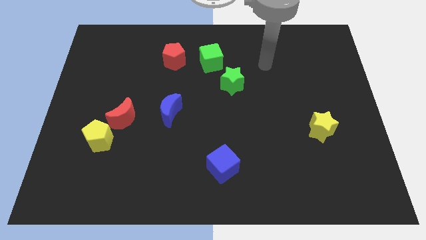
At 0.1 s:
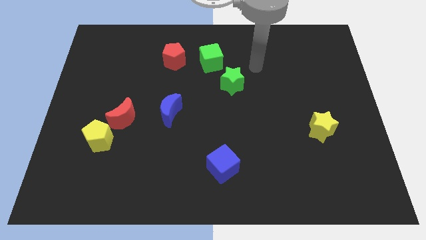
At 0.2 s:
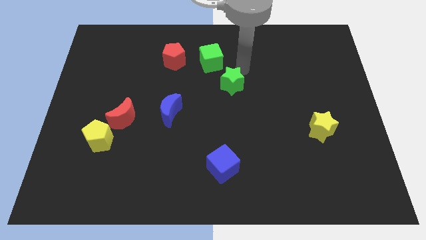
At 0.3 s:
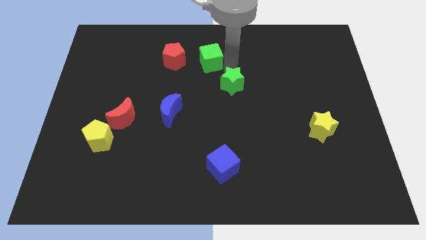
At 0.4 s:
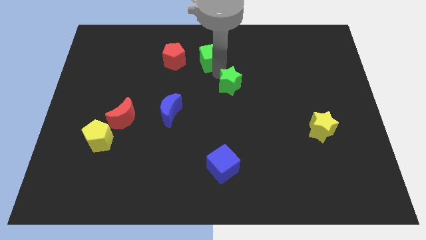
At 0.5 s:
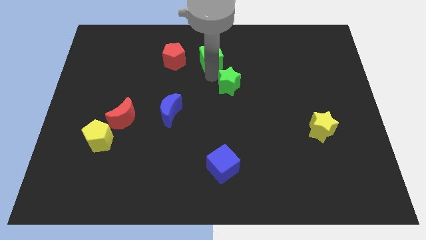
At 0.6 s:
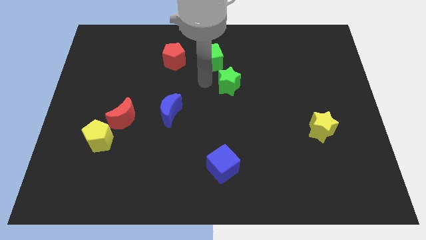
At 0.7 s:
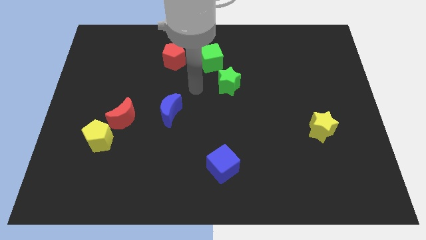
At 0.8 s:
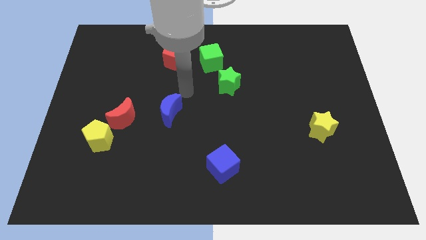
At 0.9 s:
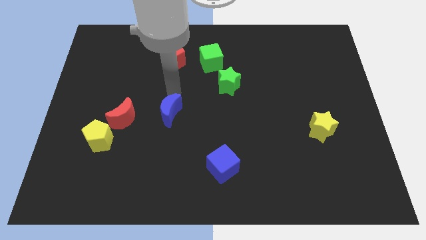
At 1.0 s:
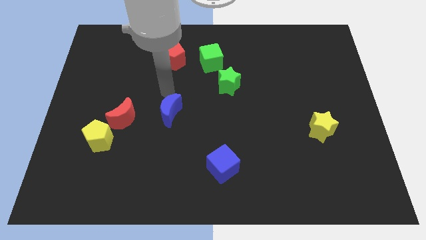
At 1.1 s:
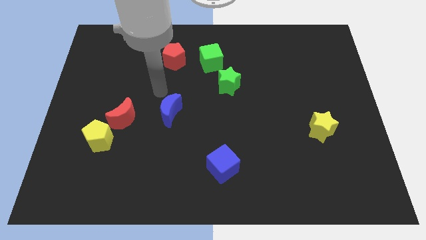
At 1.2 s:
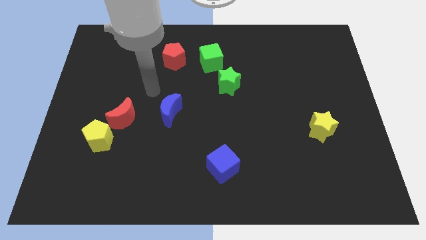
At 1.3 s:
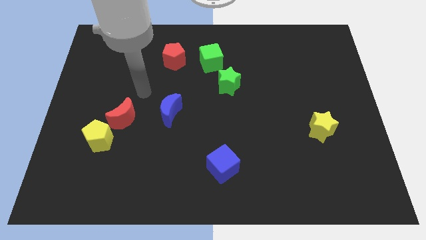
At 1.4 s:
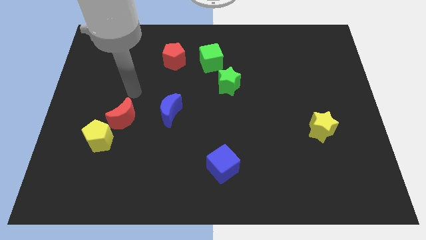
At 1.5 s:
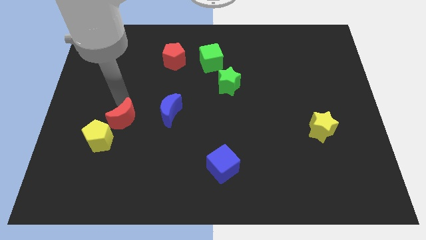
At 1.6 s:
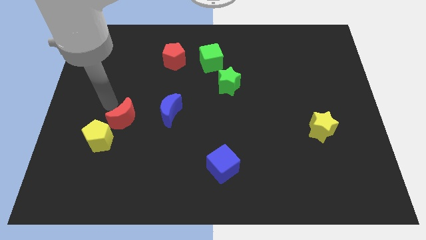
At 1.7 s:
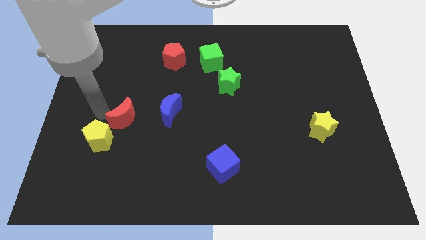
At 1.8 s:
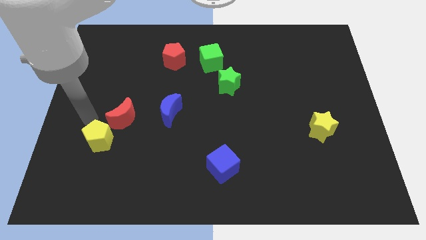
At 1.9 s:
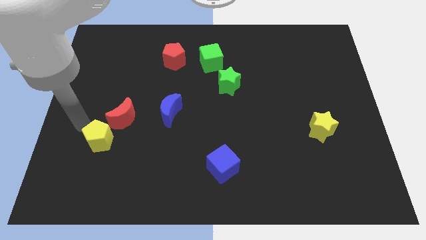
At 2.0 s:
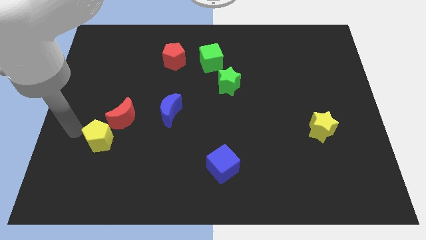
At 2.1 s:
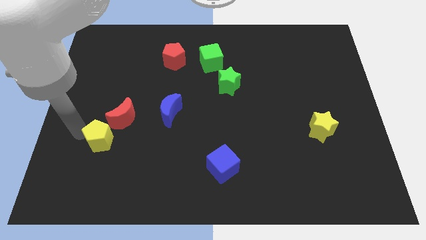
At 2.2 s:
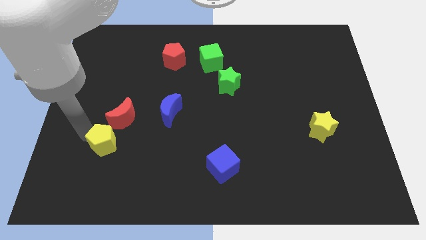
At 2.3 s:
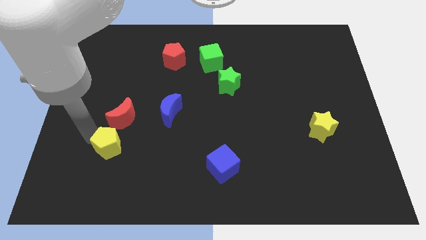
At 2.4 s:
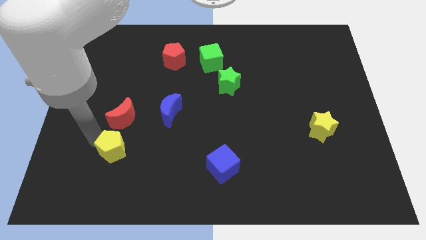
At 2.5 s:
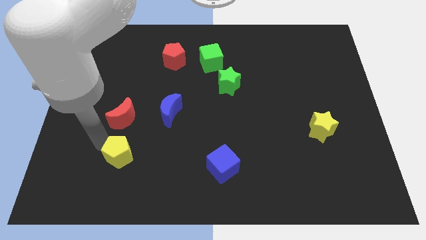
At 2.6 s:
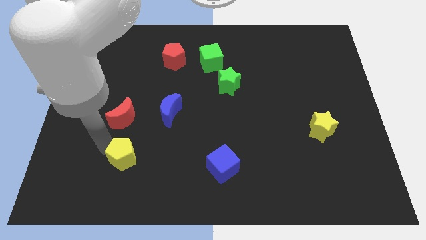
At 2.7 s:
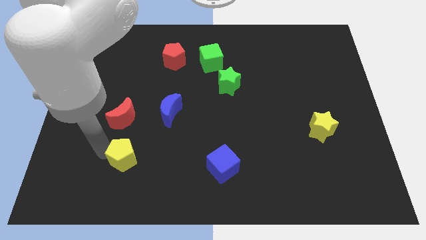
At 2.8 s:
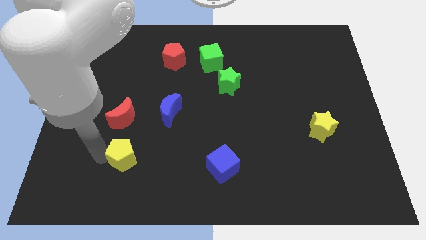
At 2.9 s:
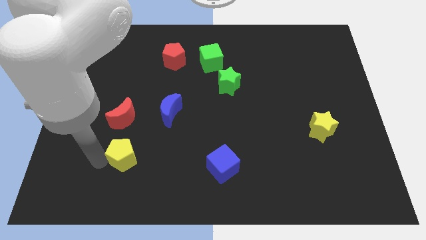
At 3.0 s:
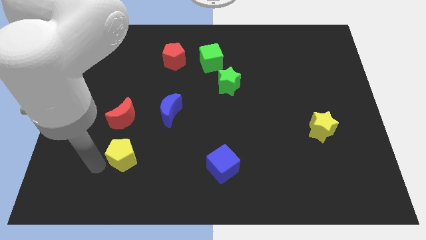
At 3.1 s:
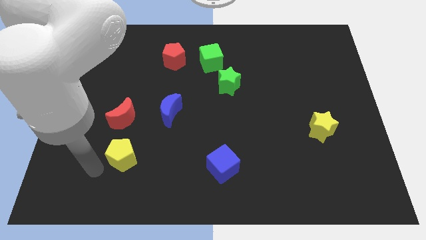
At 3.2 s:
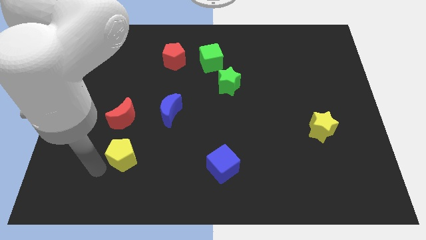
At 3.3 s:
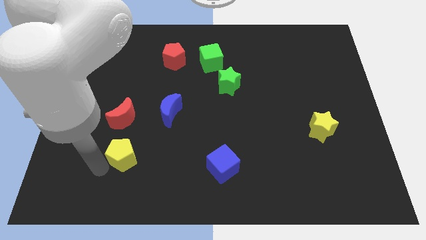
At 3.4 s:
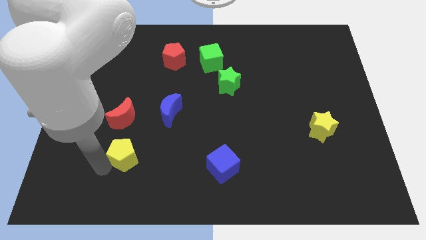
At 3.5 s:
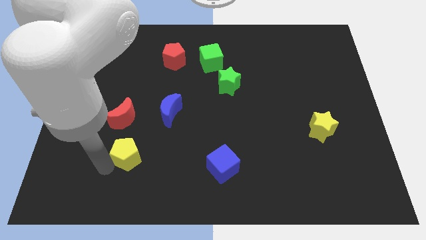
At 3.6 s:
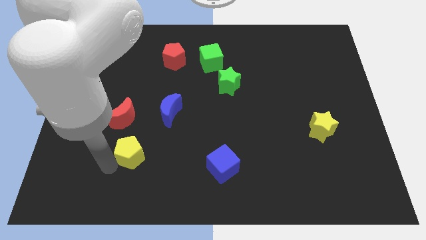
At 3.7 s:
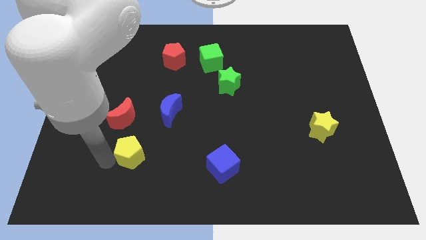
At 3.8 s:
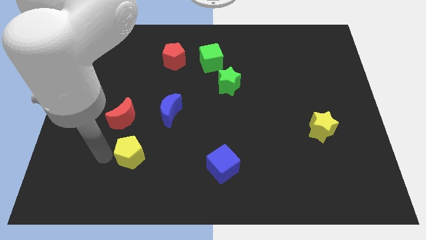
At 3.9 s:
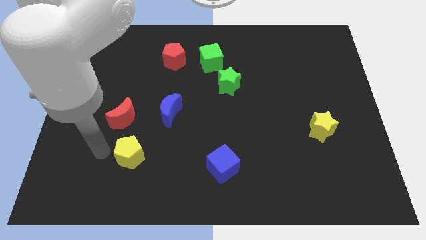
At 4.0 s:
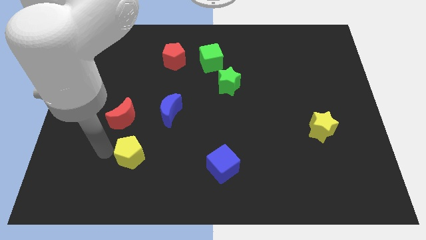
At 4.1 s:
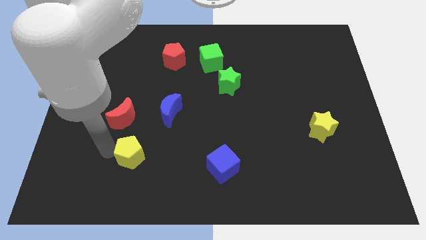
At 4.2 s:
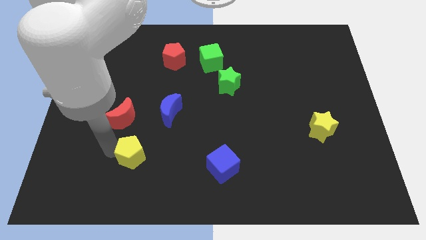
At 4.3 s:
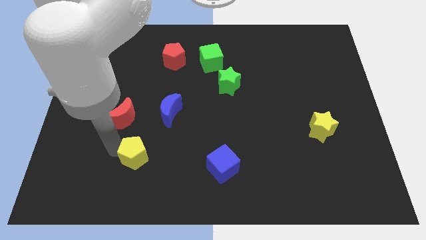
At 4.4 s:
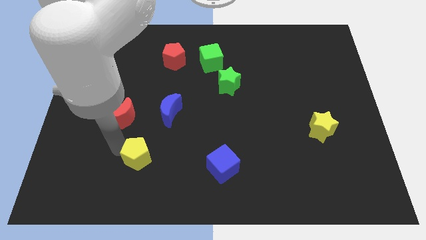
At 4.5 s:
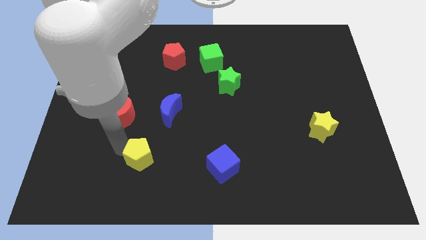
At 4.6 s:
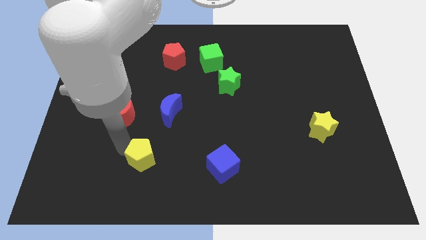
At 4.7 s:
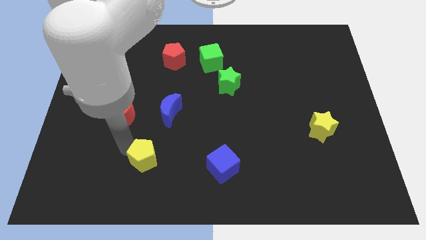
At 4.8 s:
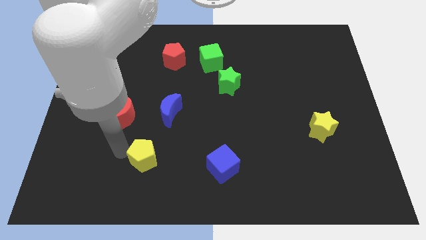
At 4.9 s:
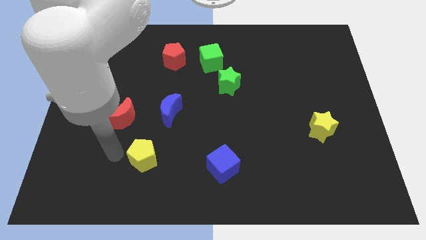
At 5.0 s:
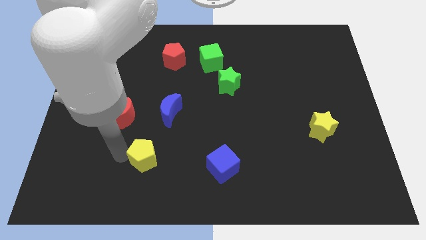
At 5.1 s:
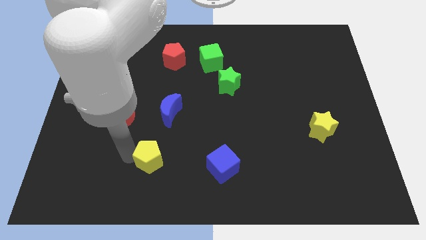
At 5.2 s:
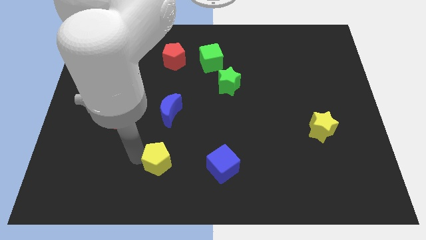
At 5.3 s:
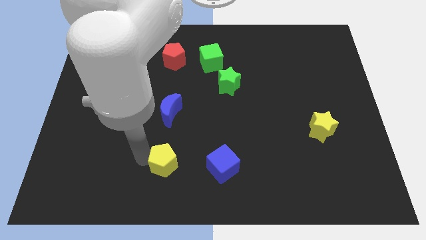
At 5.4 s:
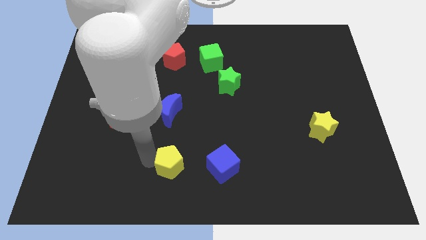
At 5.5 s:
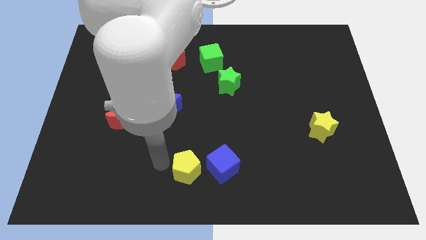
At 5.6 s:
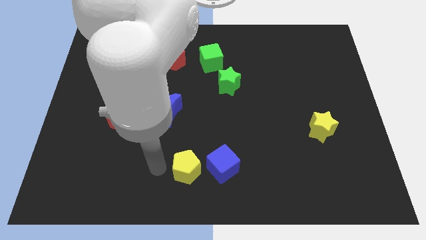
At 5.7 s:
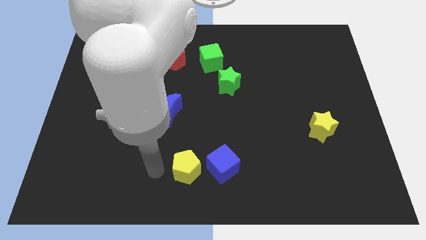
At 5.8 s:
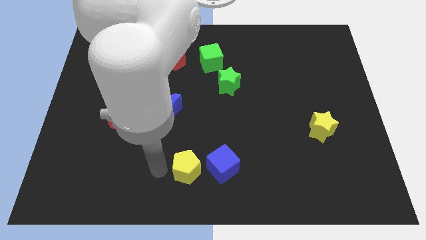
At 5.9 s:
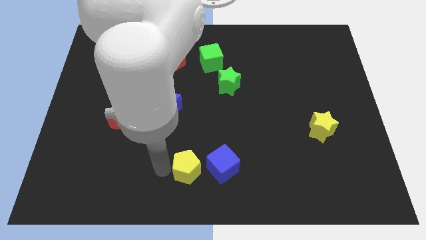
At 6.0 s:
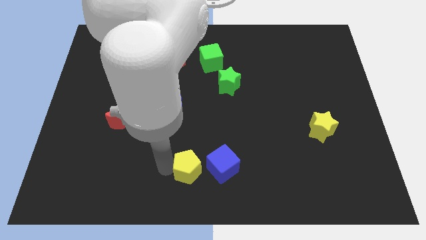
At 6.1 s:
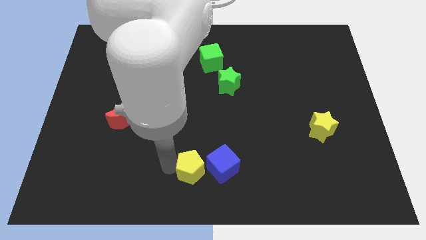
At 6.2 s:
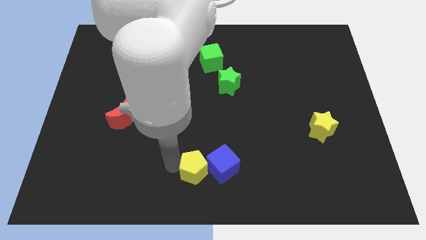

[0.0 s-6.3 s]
put the yellow pentagon close to the blue cube

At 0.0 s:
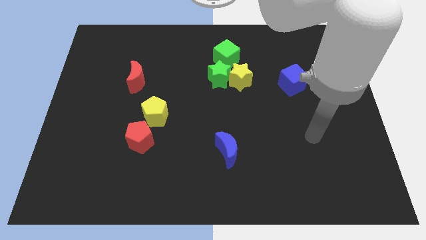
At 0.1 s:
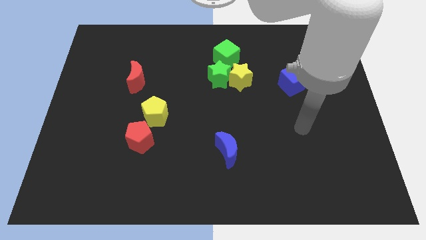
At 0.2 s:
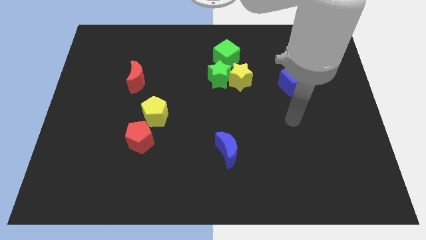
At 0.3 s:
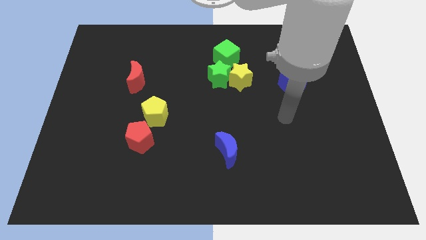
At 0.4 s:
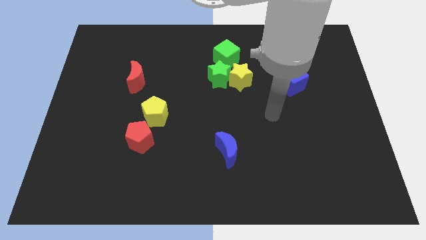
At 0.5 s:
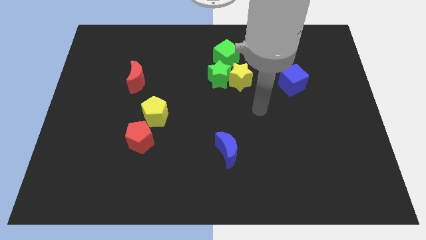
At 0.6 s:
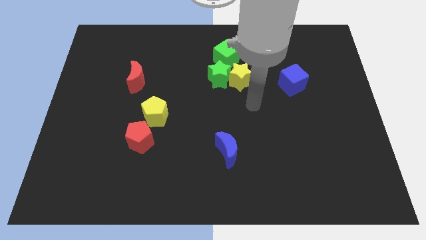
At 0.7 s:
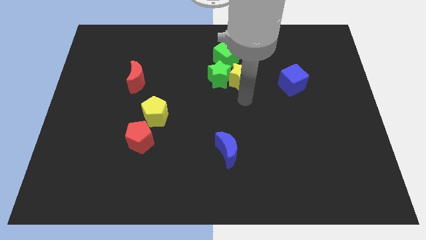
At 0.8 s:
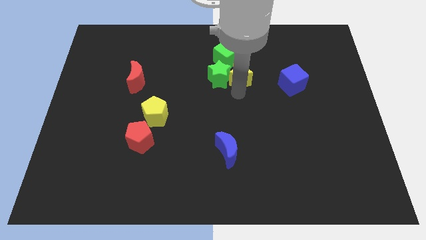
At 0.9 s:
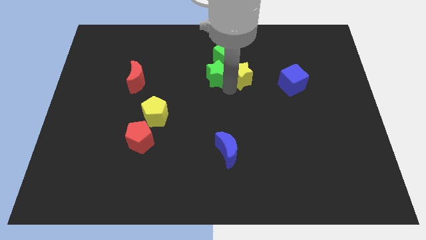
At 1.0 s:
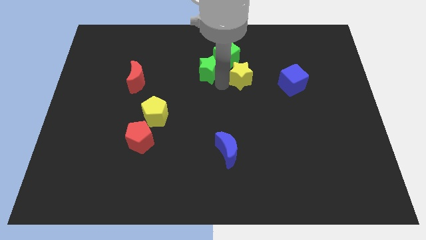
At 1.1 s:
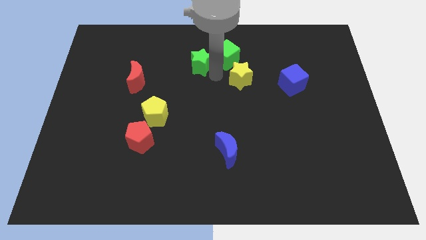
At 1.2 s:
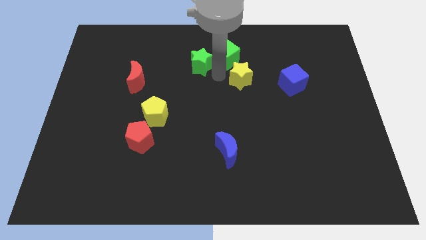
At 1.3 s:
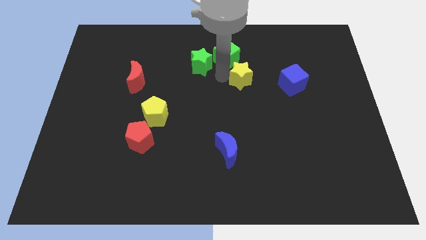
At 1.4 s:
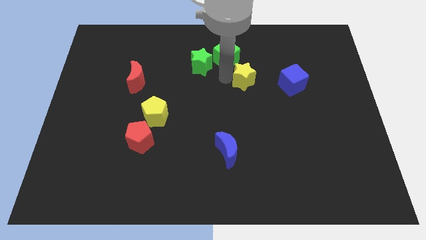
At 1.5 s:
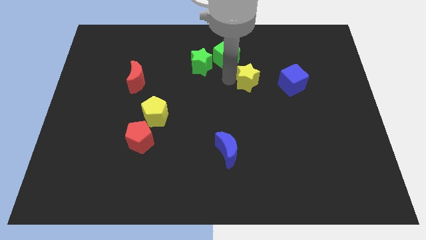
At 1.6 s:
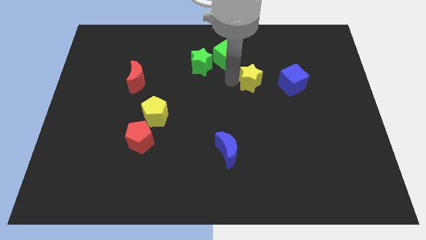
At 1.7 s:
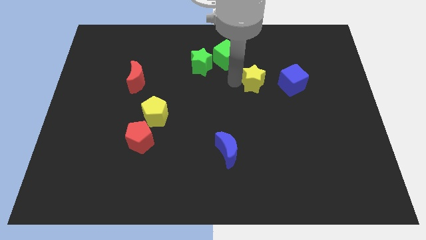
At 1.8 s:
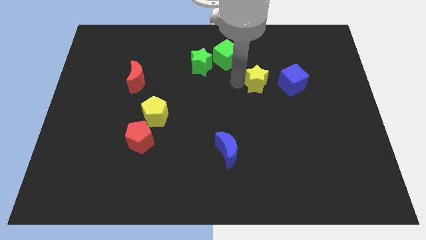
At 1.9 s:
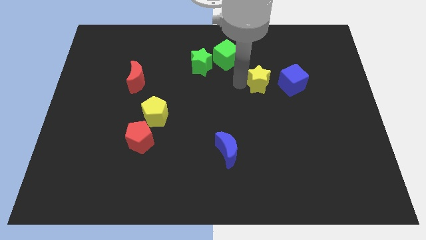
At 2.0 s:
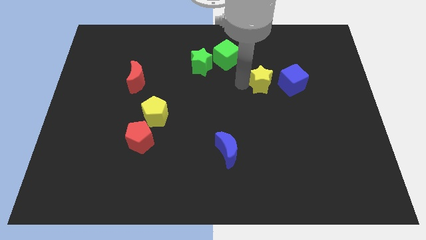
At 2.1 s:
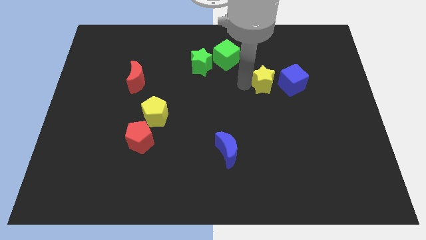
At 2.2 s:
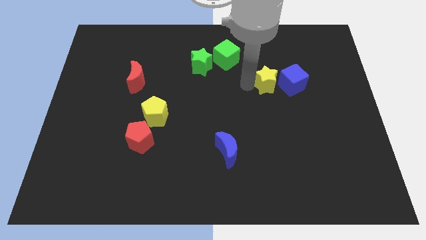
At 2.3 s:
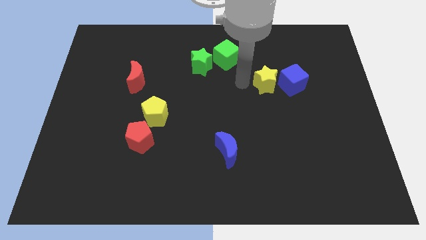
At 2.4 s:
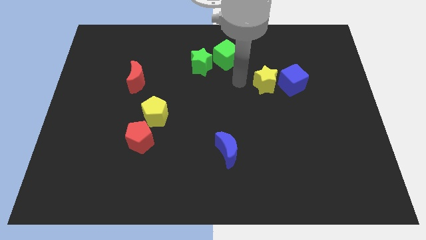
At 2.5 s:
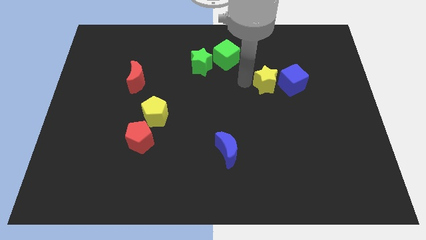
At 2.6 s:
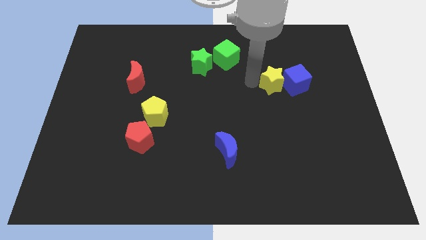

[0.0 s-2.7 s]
push the yellow star next to the blue cube
